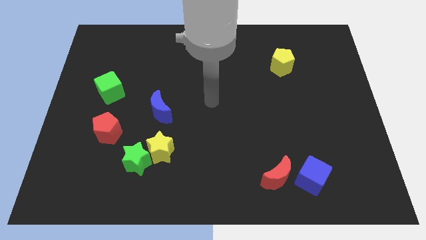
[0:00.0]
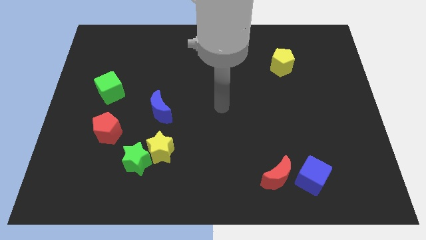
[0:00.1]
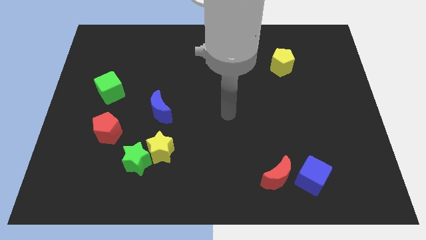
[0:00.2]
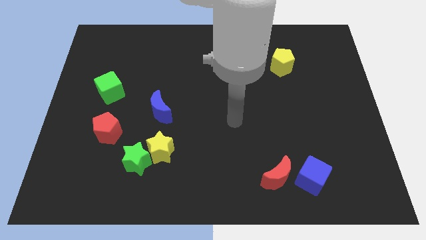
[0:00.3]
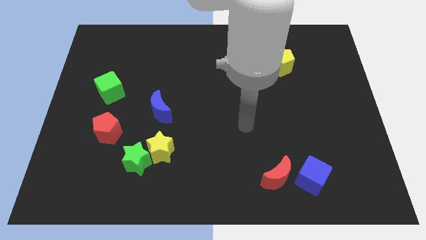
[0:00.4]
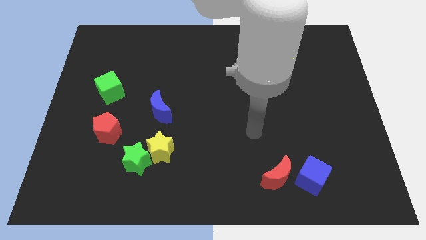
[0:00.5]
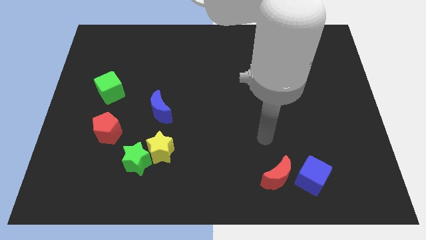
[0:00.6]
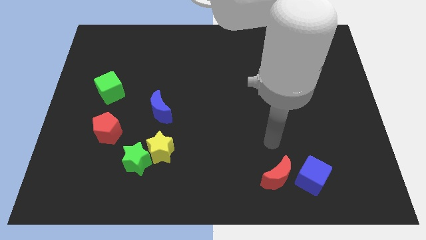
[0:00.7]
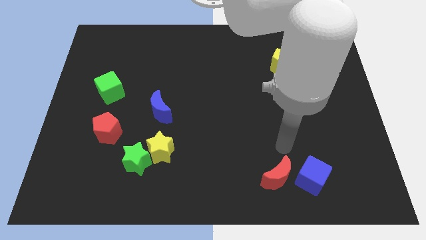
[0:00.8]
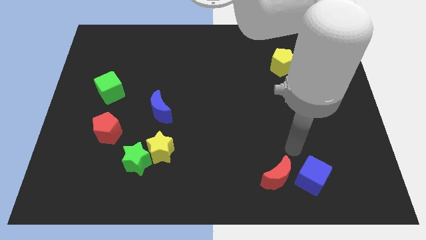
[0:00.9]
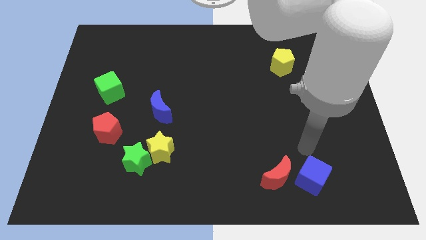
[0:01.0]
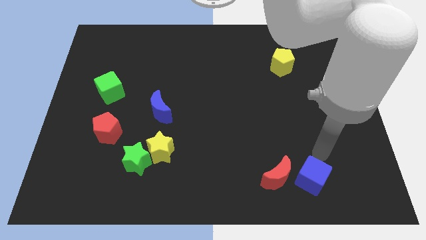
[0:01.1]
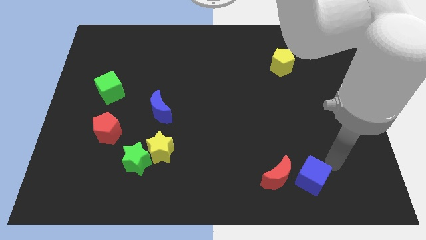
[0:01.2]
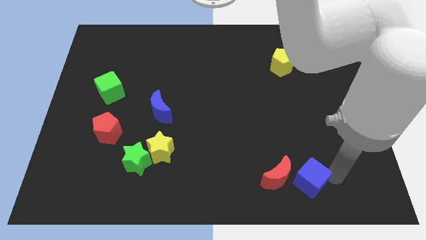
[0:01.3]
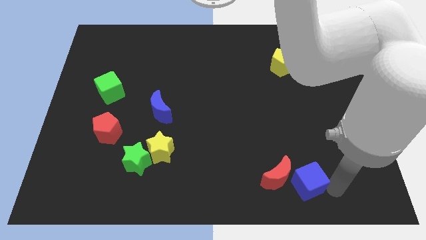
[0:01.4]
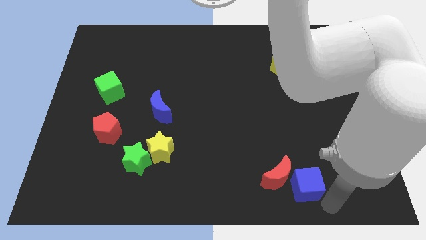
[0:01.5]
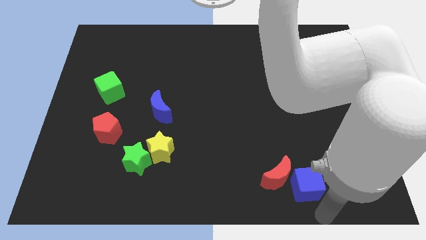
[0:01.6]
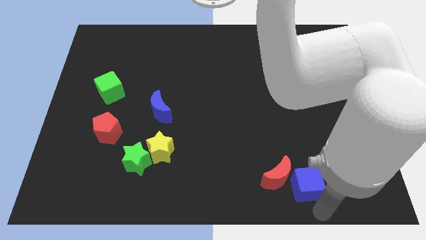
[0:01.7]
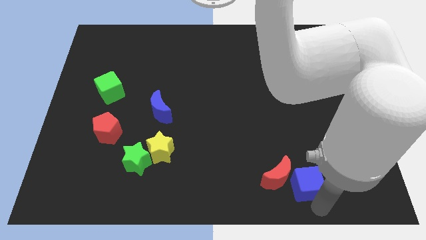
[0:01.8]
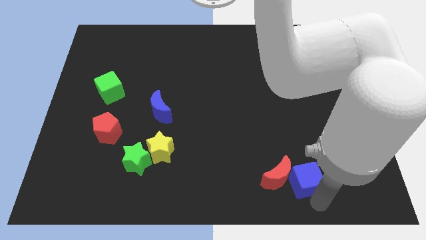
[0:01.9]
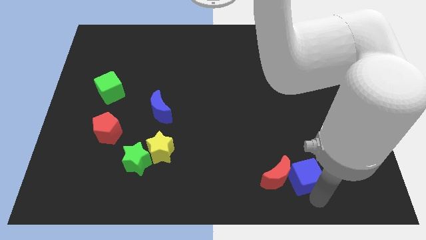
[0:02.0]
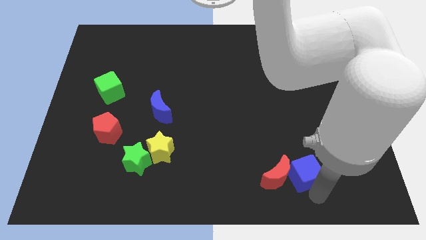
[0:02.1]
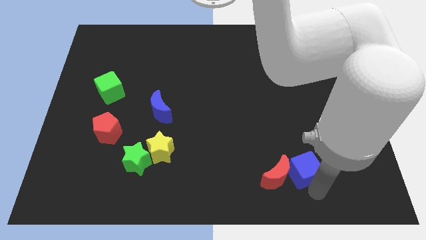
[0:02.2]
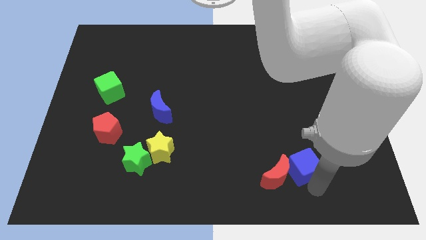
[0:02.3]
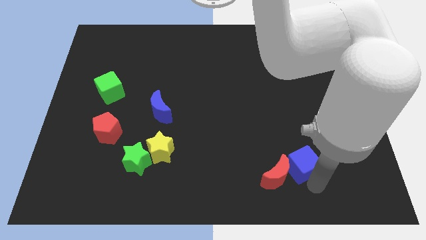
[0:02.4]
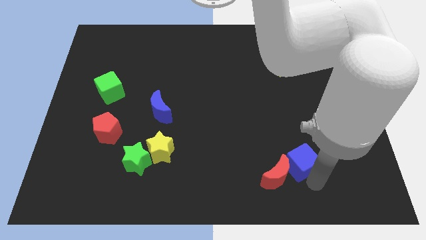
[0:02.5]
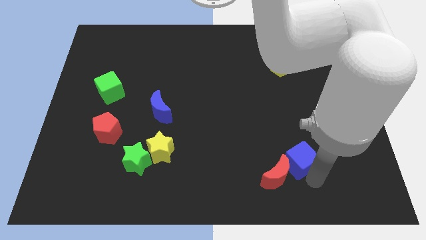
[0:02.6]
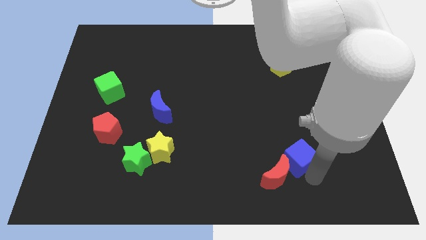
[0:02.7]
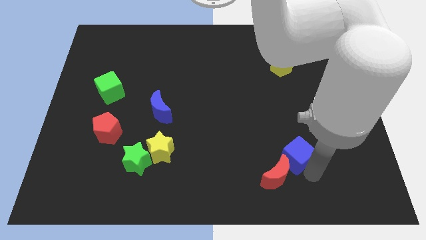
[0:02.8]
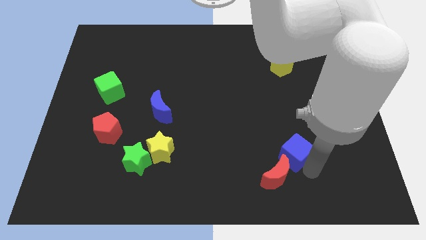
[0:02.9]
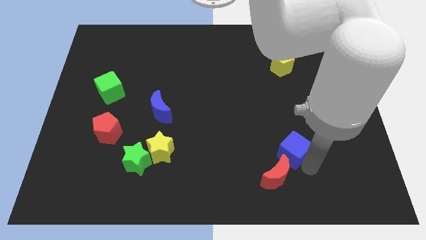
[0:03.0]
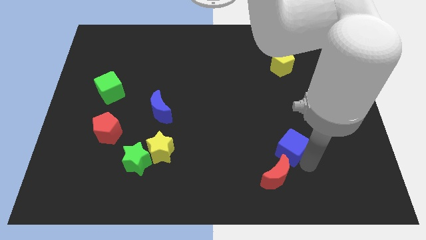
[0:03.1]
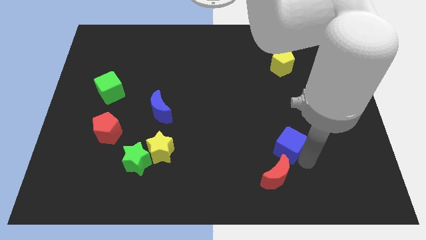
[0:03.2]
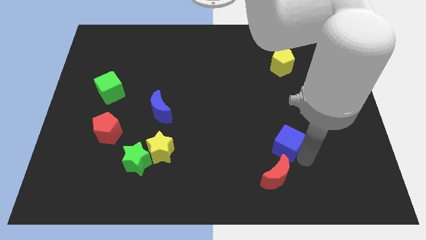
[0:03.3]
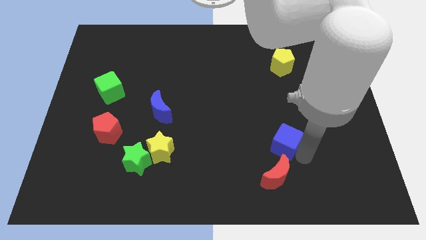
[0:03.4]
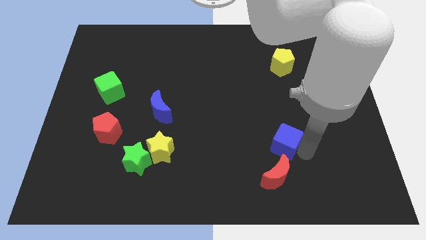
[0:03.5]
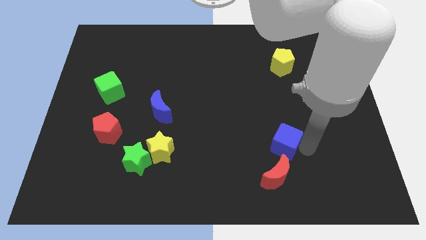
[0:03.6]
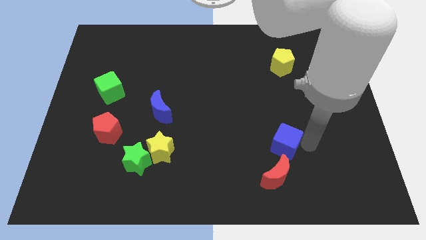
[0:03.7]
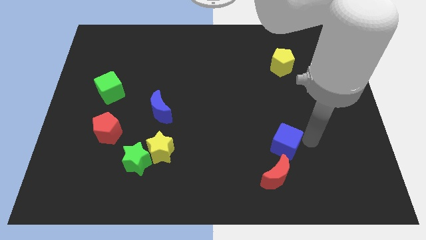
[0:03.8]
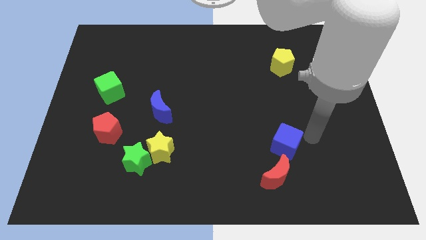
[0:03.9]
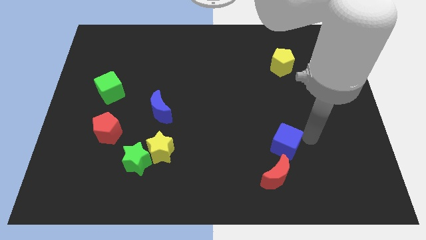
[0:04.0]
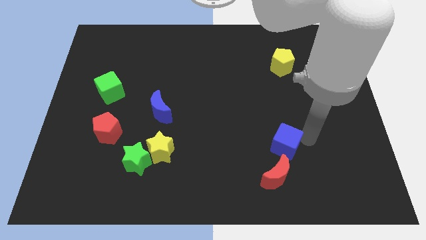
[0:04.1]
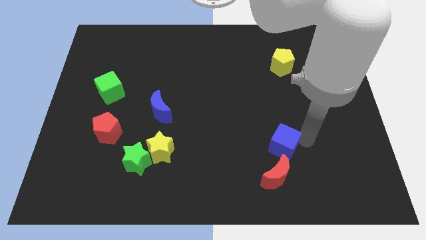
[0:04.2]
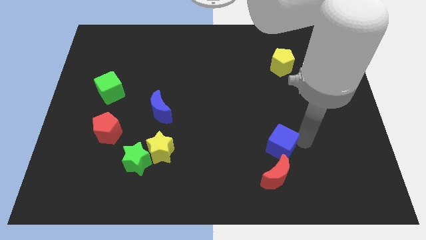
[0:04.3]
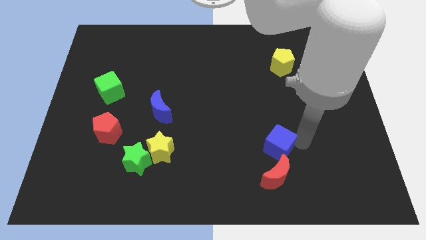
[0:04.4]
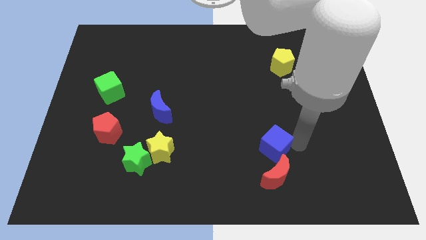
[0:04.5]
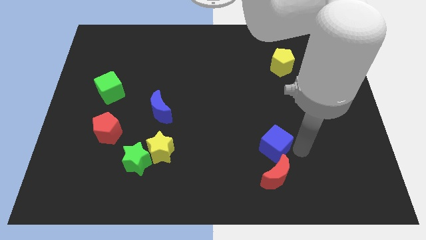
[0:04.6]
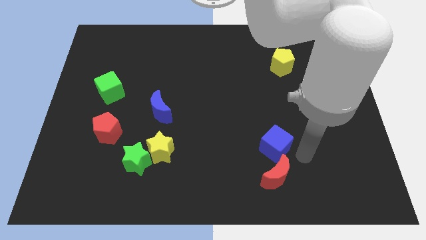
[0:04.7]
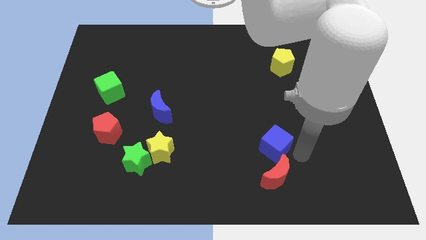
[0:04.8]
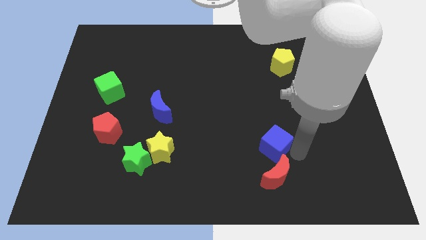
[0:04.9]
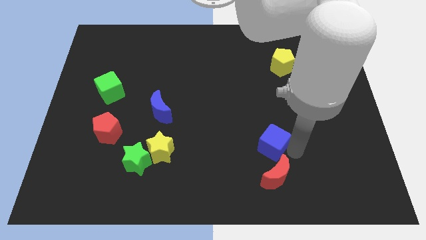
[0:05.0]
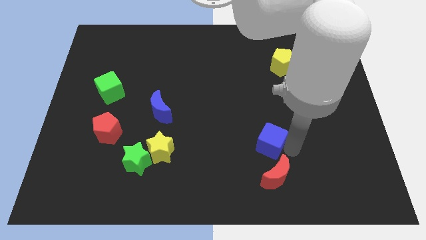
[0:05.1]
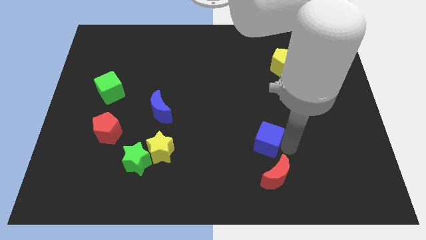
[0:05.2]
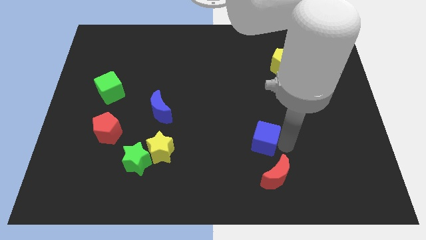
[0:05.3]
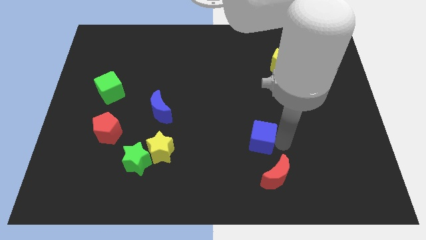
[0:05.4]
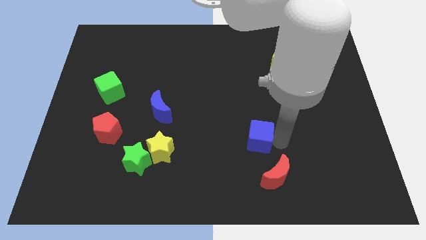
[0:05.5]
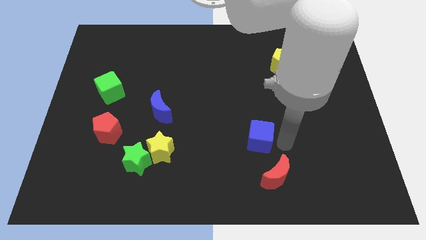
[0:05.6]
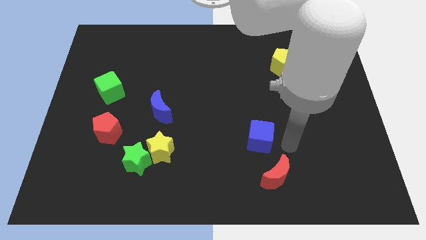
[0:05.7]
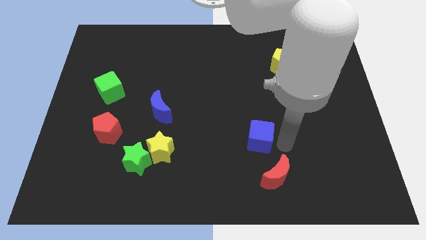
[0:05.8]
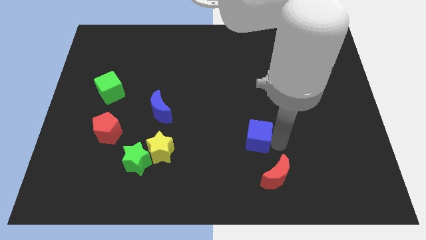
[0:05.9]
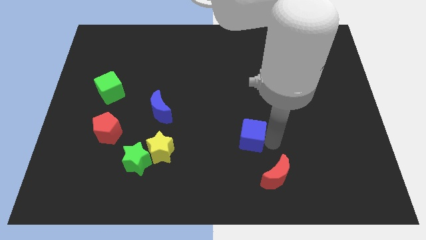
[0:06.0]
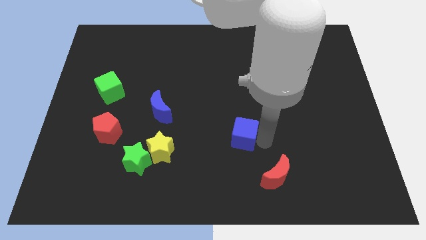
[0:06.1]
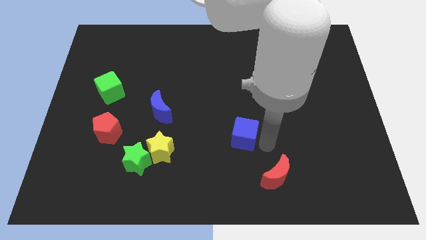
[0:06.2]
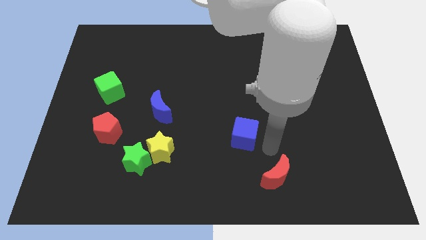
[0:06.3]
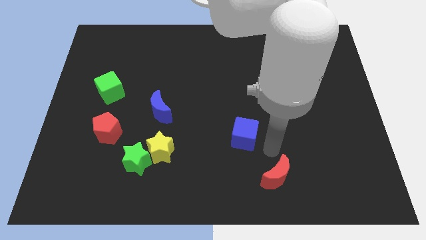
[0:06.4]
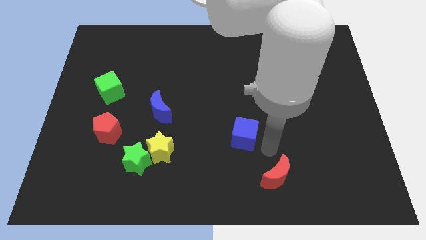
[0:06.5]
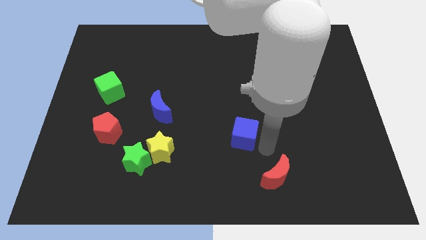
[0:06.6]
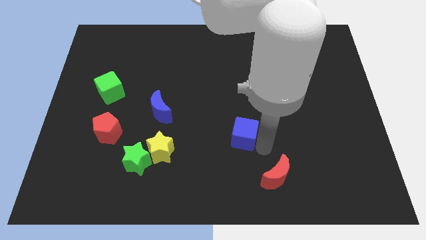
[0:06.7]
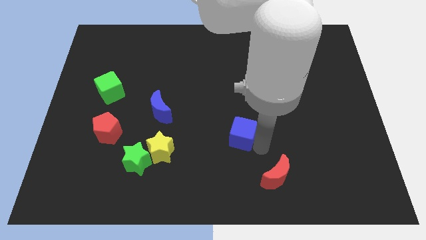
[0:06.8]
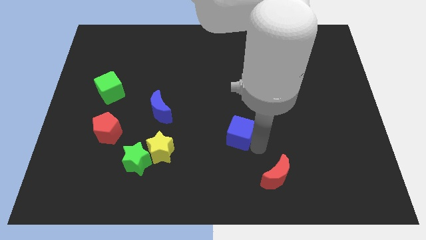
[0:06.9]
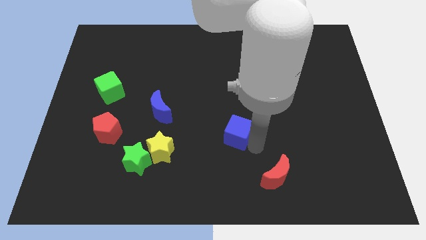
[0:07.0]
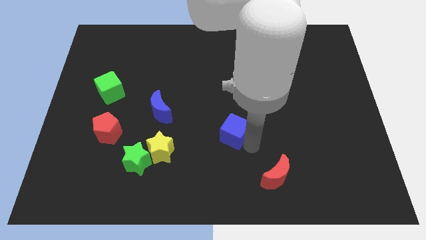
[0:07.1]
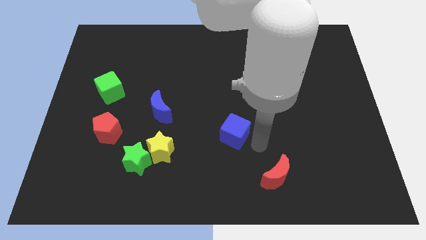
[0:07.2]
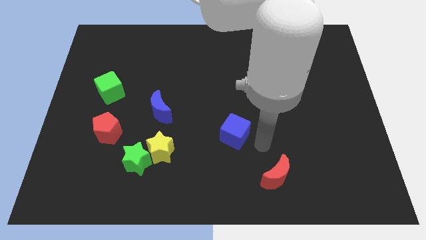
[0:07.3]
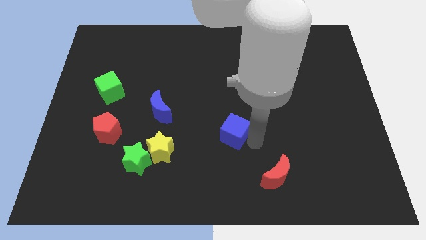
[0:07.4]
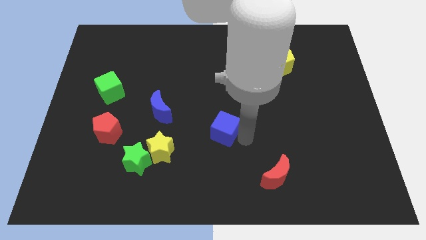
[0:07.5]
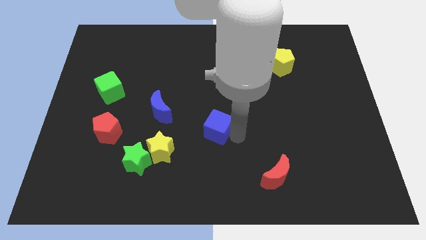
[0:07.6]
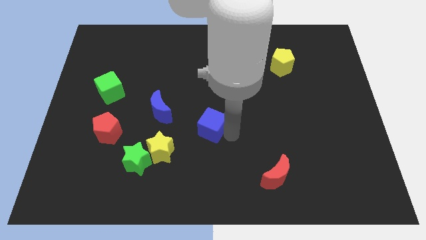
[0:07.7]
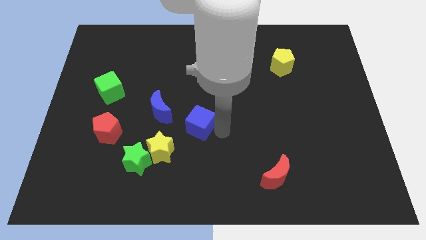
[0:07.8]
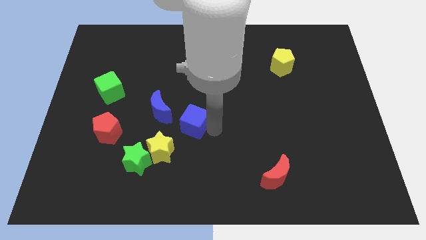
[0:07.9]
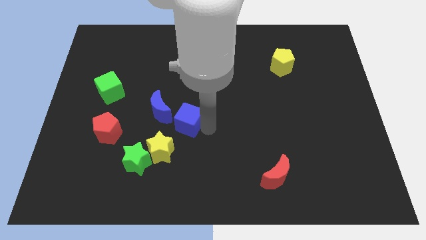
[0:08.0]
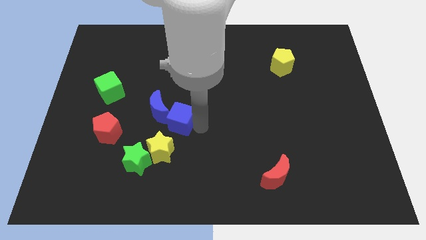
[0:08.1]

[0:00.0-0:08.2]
put the blue cube towards the blue moon
